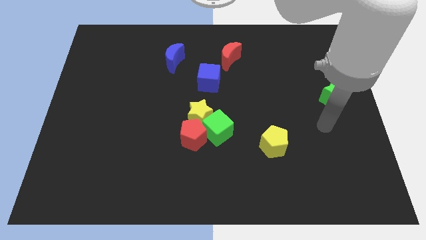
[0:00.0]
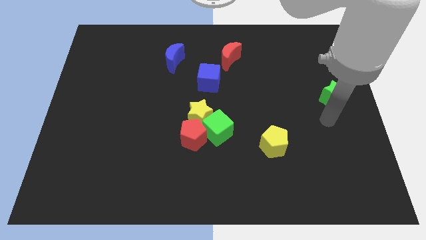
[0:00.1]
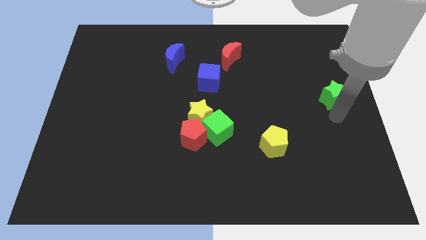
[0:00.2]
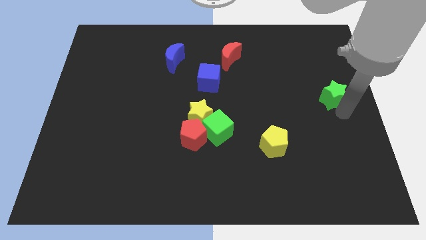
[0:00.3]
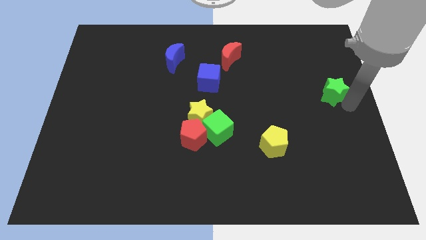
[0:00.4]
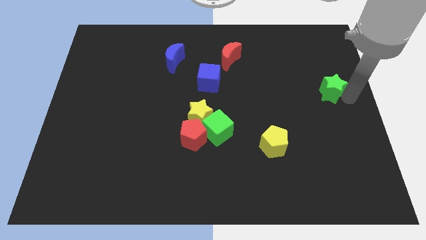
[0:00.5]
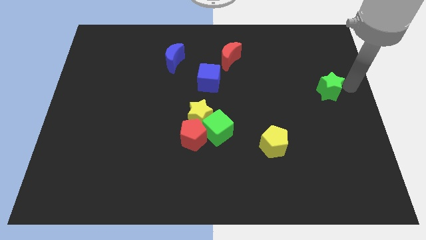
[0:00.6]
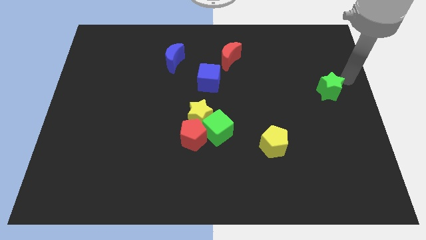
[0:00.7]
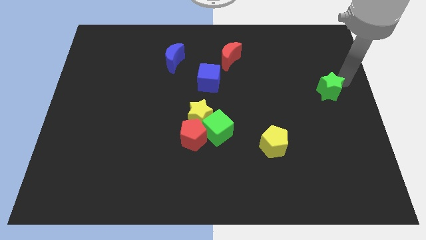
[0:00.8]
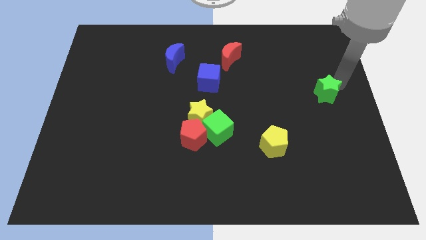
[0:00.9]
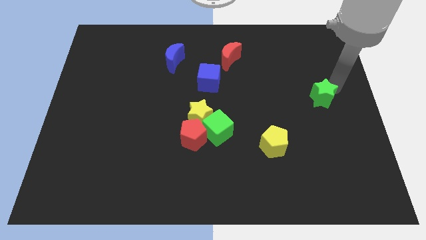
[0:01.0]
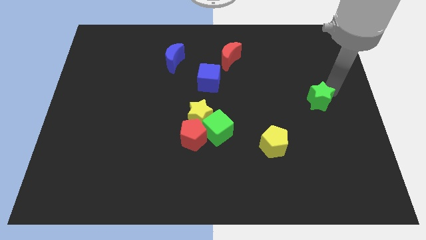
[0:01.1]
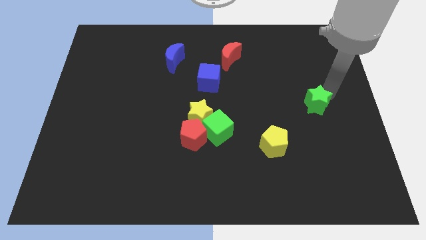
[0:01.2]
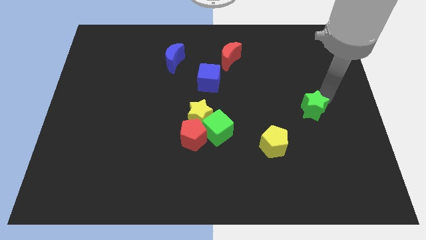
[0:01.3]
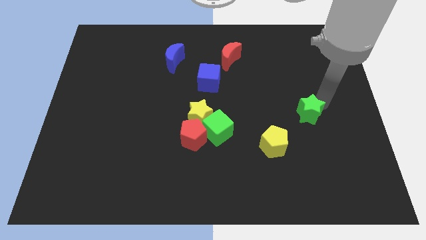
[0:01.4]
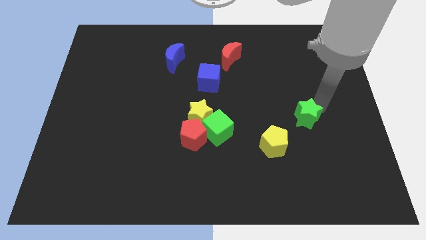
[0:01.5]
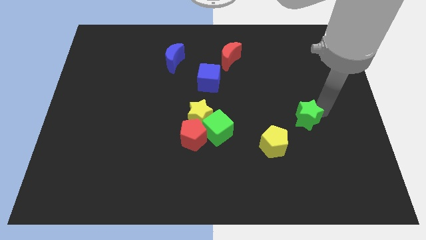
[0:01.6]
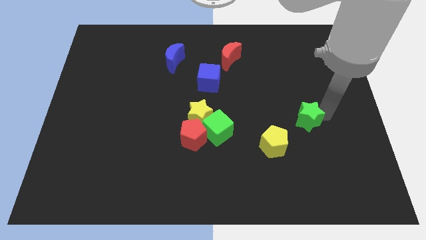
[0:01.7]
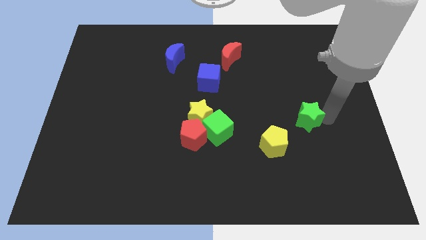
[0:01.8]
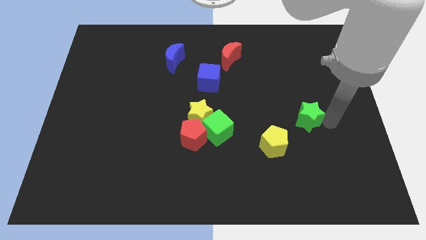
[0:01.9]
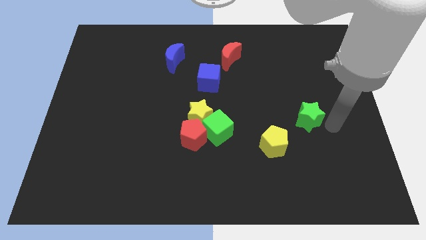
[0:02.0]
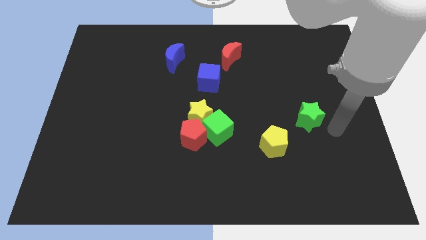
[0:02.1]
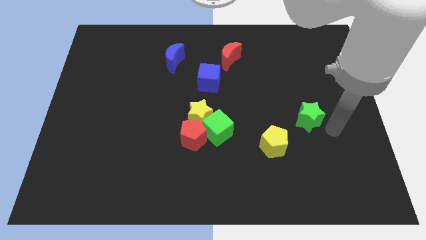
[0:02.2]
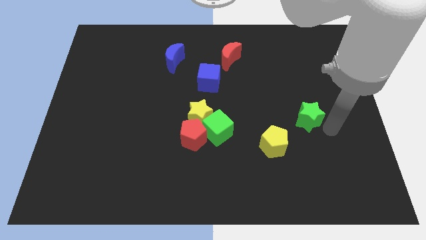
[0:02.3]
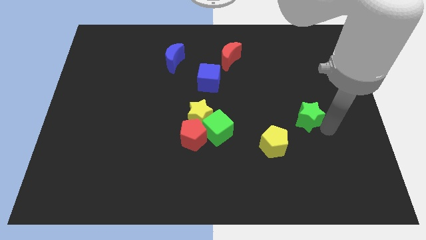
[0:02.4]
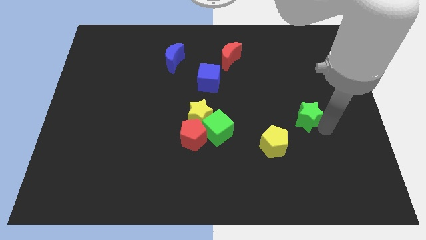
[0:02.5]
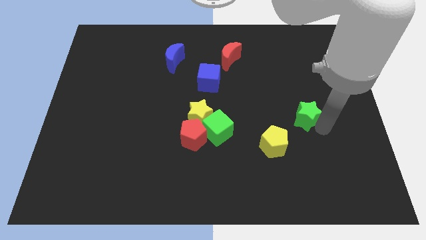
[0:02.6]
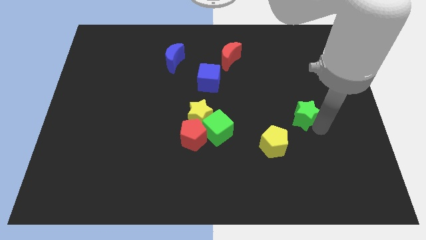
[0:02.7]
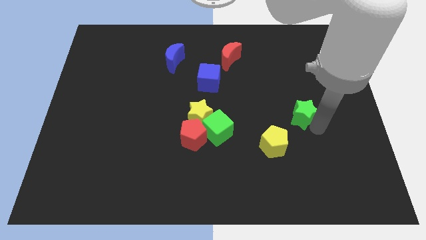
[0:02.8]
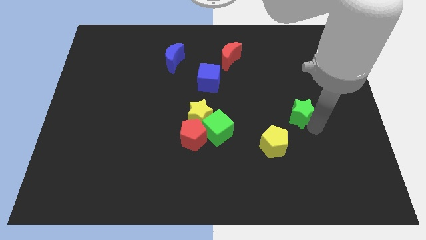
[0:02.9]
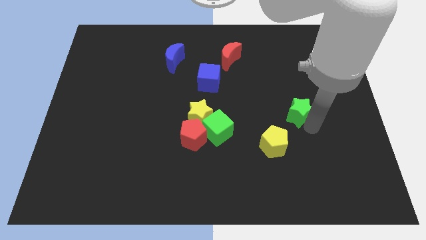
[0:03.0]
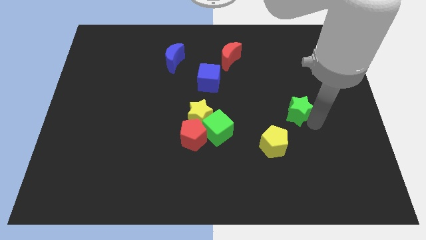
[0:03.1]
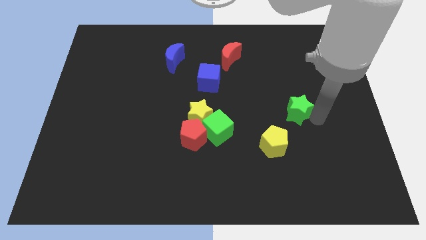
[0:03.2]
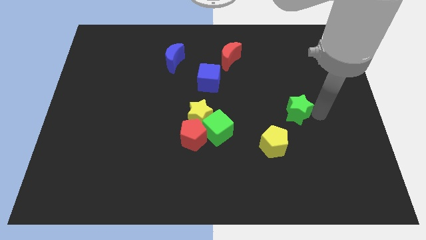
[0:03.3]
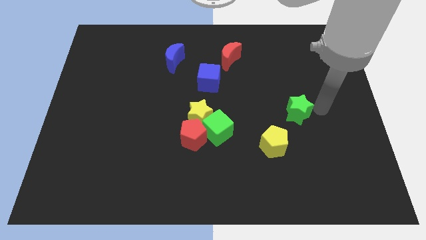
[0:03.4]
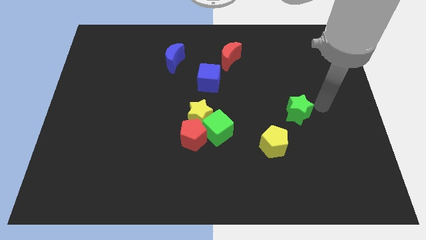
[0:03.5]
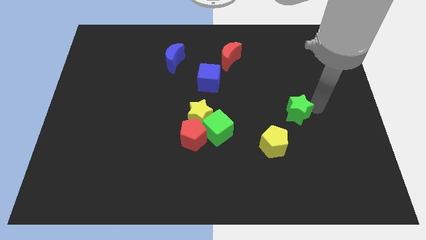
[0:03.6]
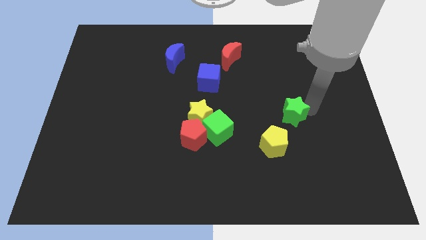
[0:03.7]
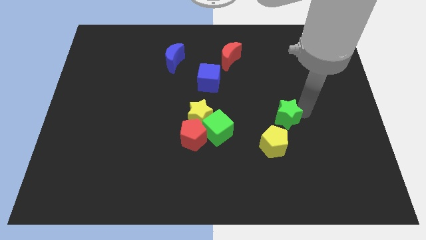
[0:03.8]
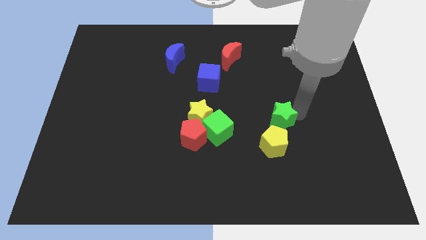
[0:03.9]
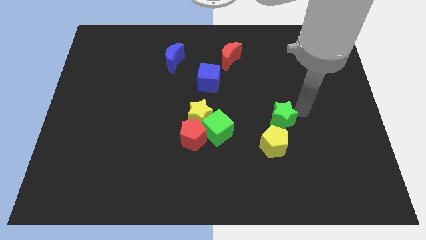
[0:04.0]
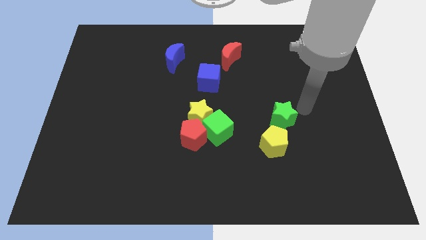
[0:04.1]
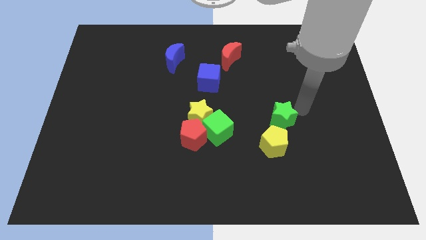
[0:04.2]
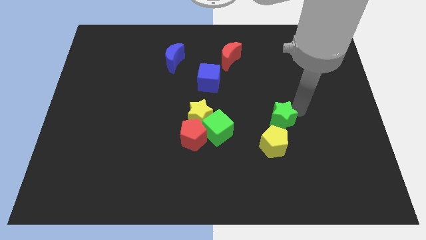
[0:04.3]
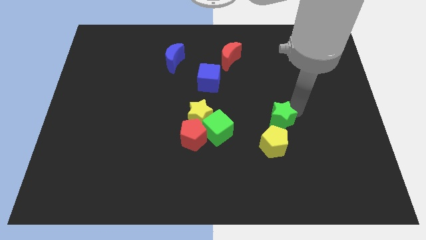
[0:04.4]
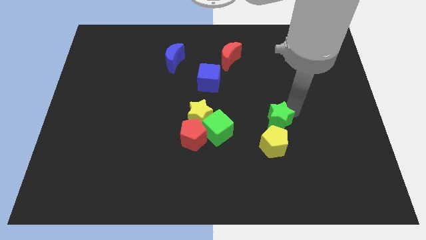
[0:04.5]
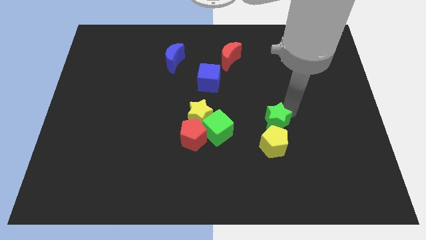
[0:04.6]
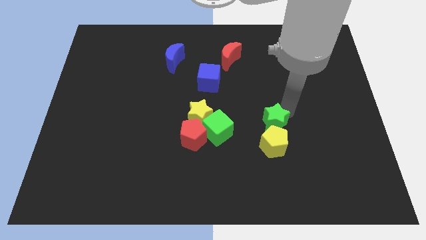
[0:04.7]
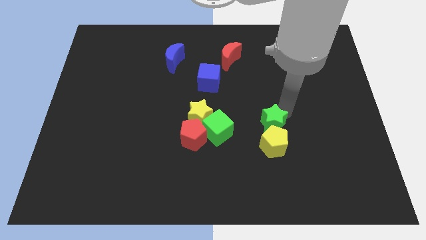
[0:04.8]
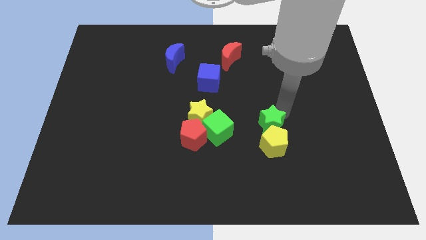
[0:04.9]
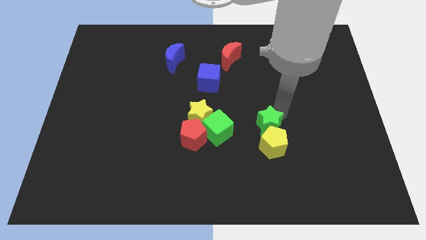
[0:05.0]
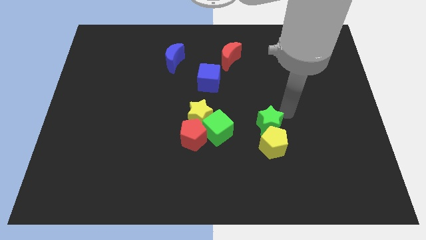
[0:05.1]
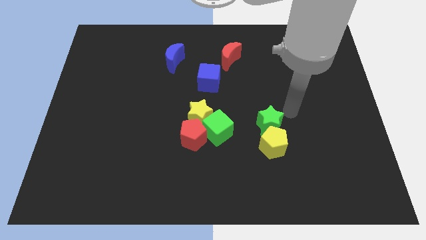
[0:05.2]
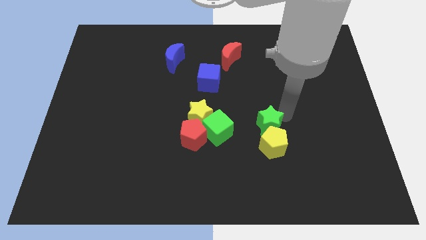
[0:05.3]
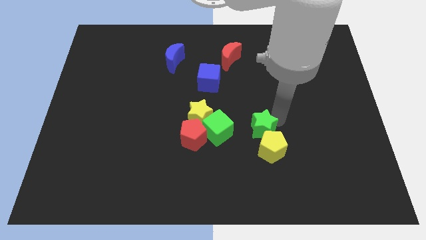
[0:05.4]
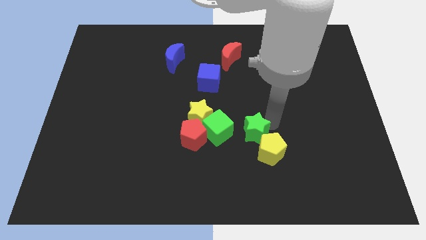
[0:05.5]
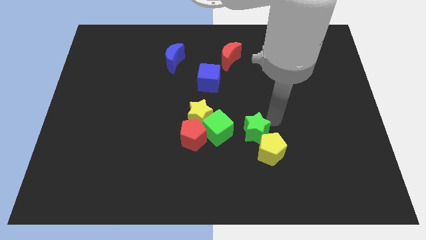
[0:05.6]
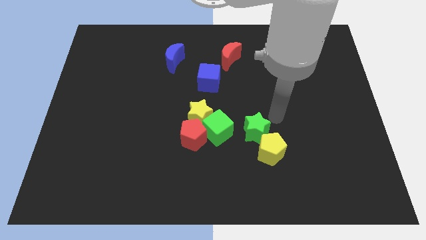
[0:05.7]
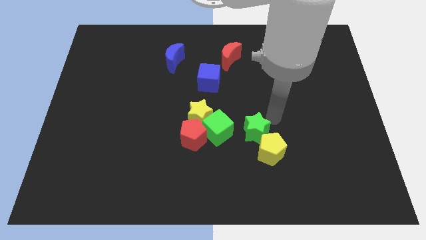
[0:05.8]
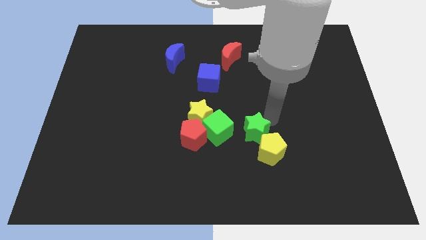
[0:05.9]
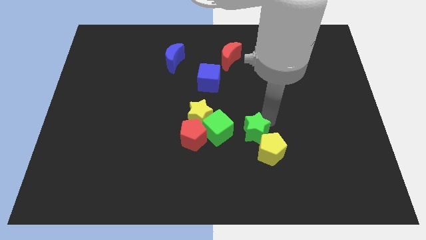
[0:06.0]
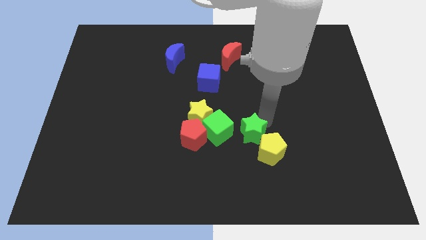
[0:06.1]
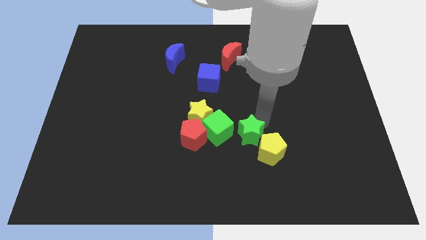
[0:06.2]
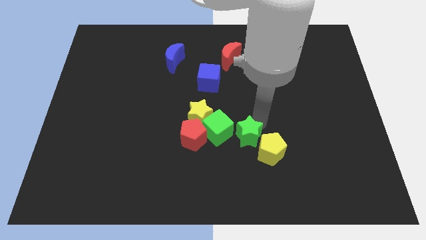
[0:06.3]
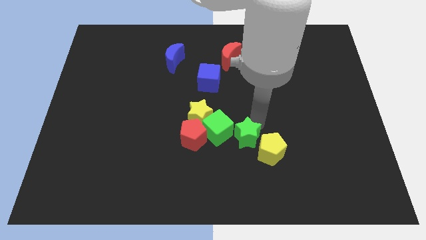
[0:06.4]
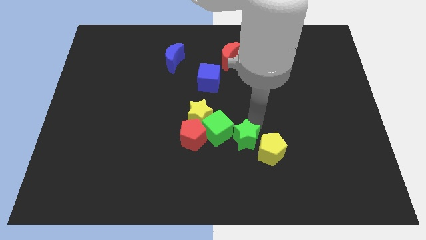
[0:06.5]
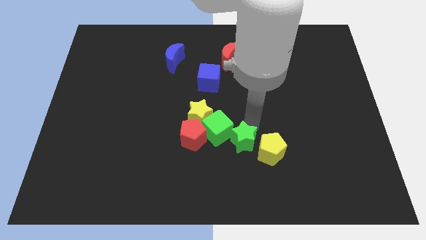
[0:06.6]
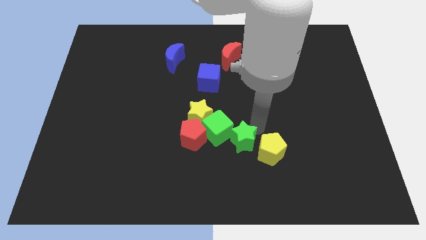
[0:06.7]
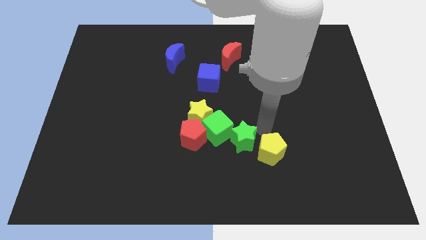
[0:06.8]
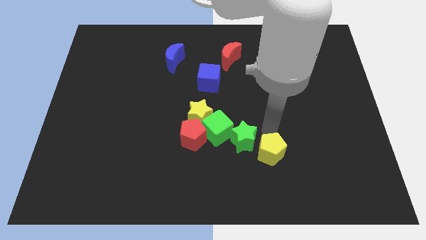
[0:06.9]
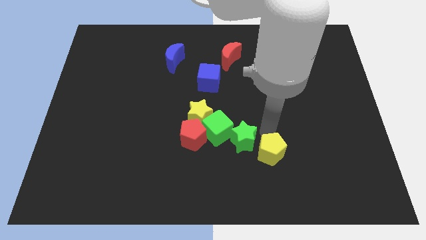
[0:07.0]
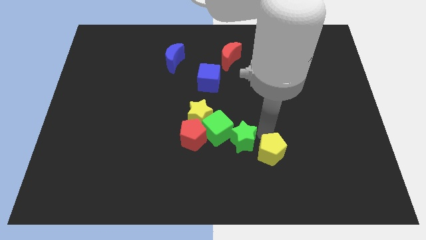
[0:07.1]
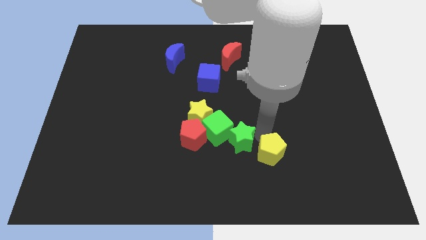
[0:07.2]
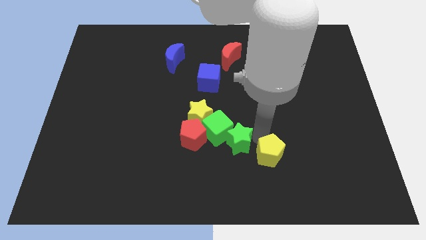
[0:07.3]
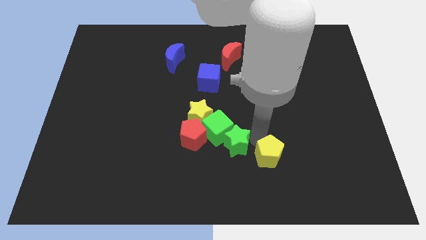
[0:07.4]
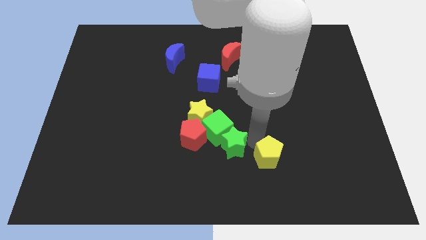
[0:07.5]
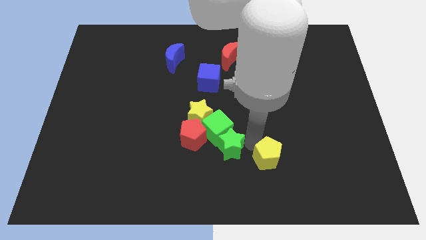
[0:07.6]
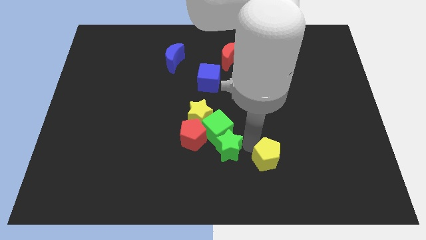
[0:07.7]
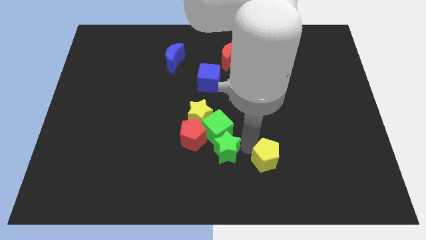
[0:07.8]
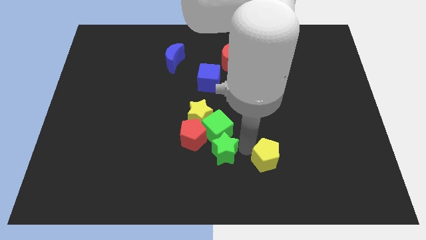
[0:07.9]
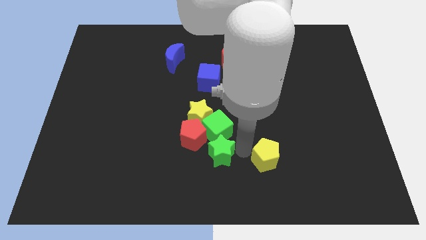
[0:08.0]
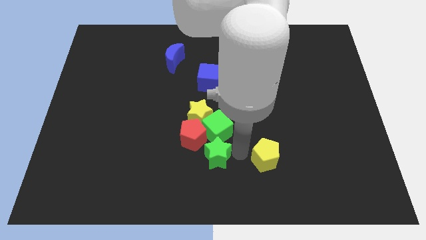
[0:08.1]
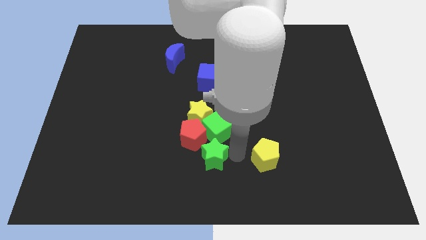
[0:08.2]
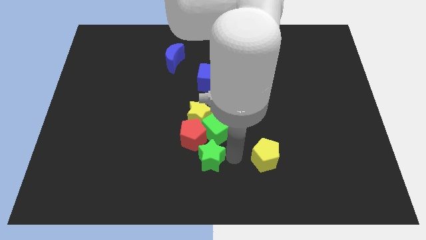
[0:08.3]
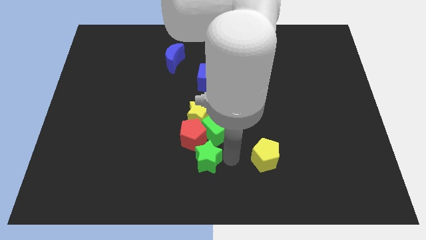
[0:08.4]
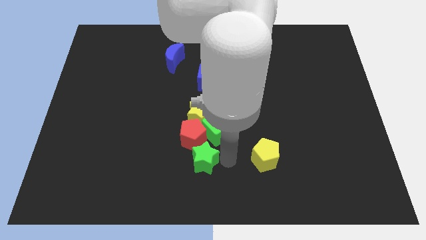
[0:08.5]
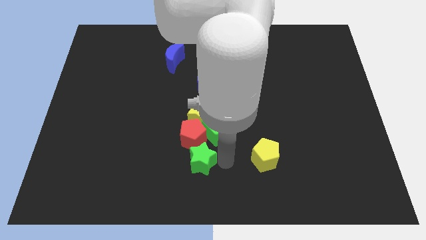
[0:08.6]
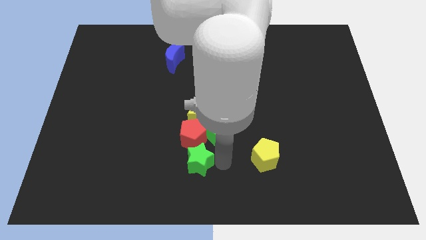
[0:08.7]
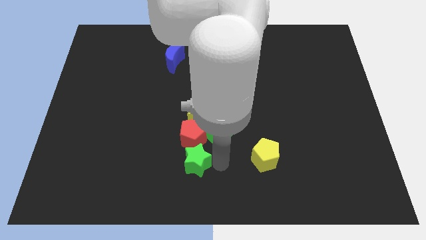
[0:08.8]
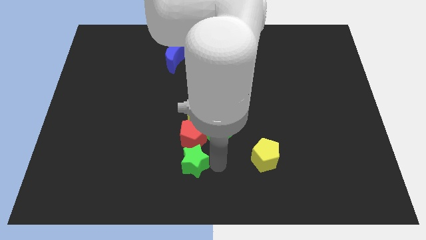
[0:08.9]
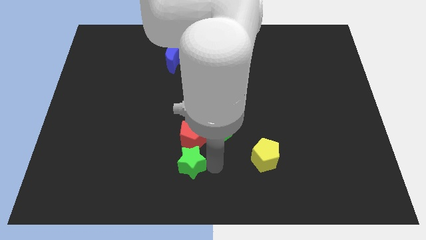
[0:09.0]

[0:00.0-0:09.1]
put the green star diagonally down and to the left of the red pentagon
